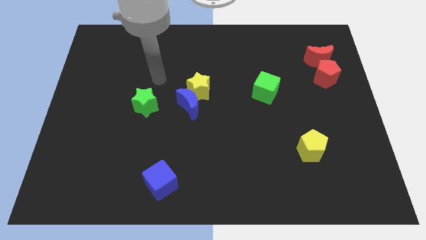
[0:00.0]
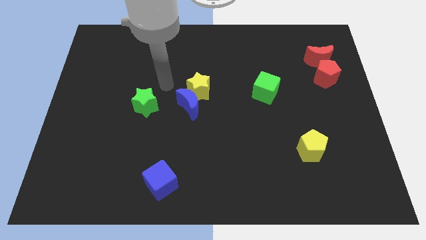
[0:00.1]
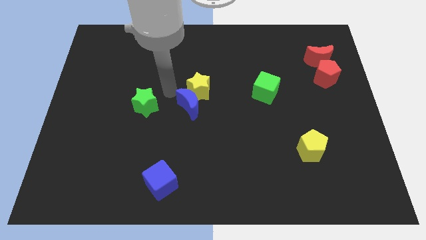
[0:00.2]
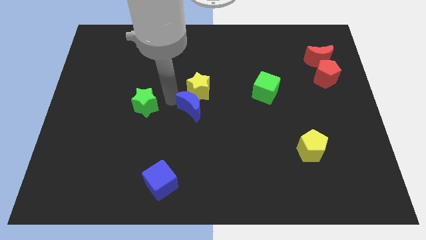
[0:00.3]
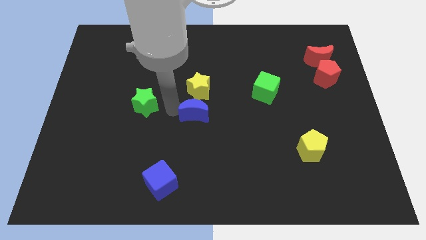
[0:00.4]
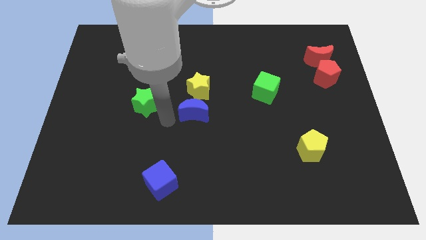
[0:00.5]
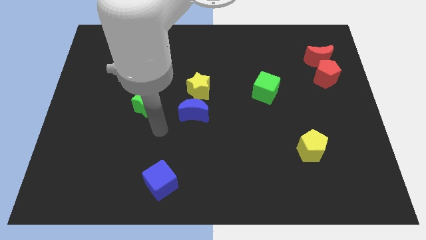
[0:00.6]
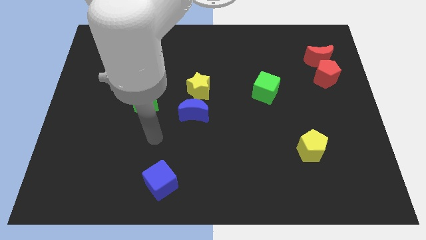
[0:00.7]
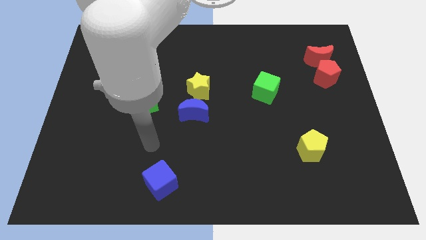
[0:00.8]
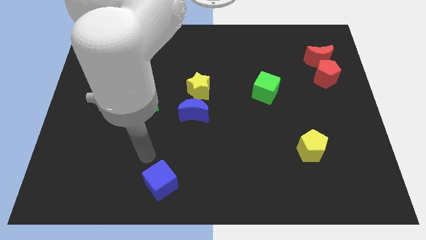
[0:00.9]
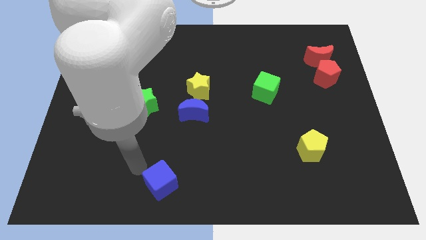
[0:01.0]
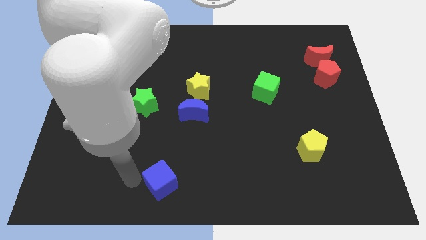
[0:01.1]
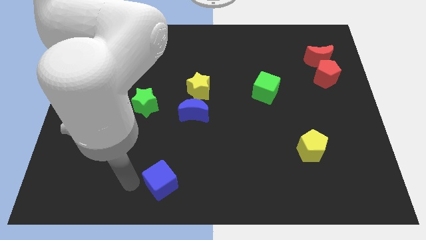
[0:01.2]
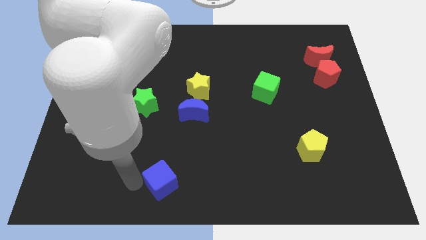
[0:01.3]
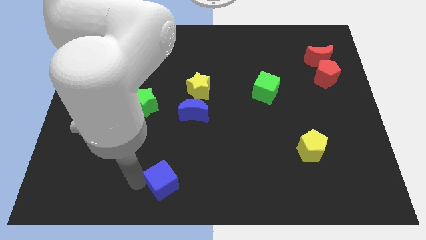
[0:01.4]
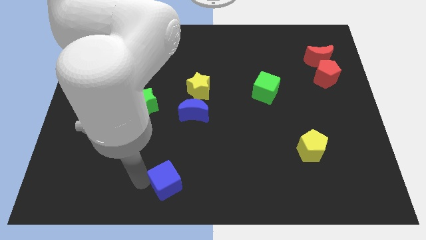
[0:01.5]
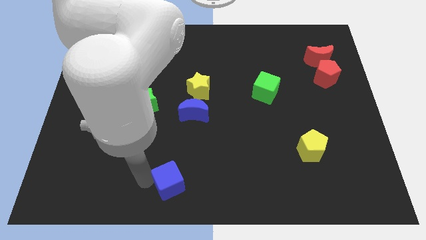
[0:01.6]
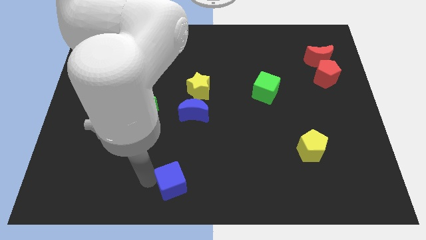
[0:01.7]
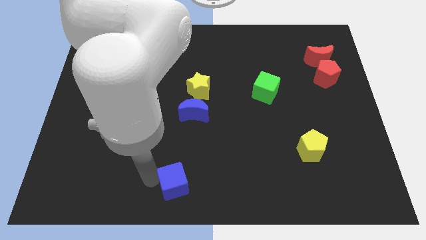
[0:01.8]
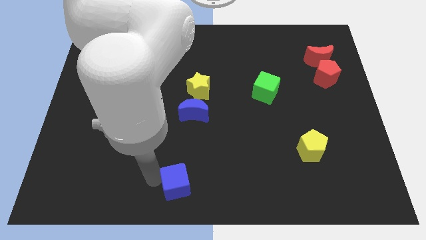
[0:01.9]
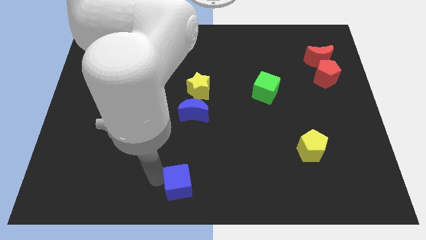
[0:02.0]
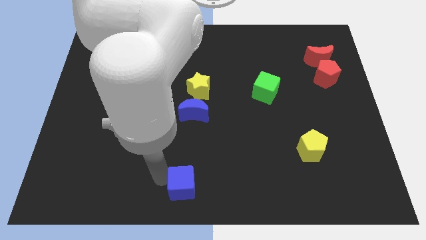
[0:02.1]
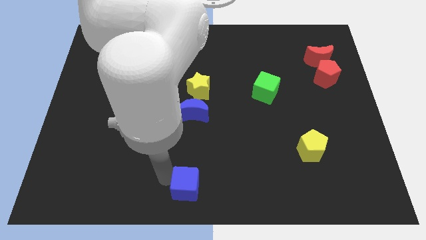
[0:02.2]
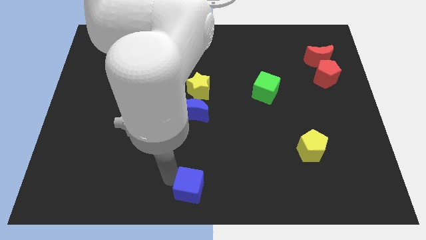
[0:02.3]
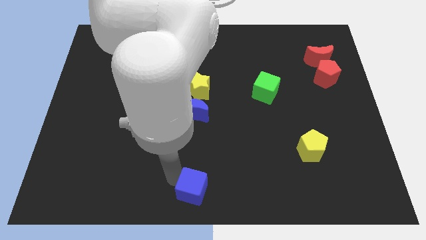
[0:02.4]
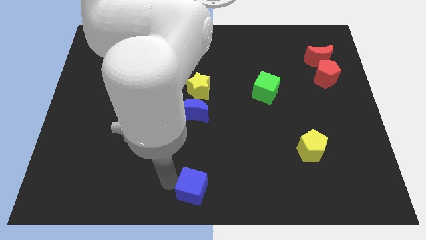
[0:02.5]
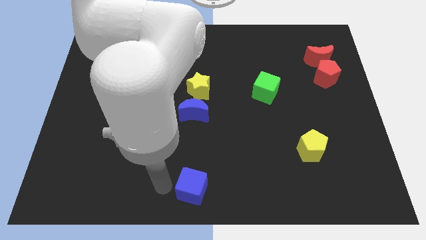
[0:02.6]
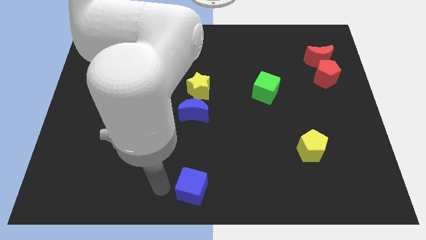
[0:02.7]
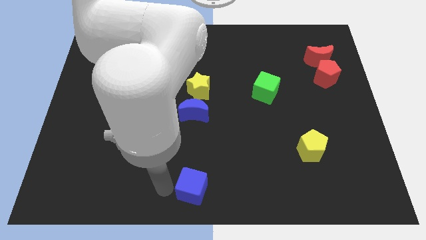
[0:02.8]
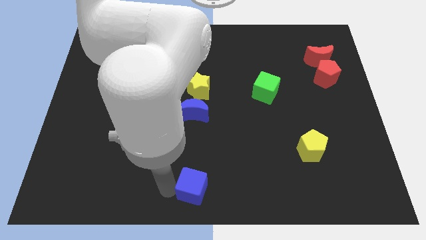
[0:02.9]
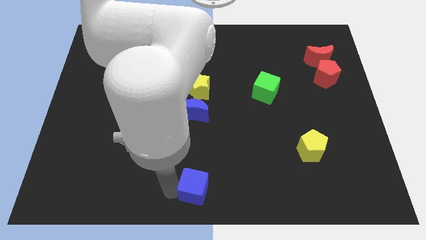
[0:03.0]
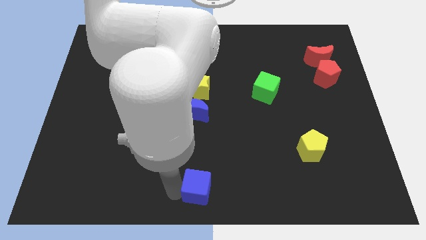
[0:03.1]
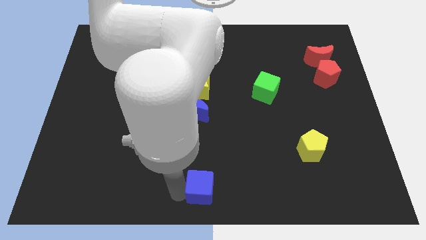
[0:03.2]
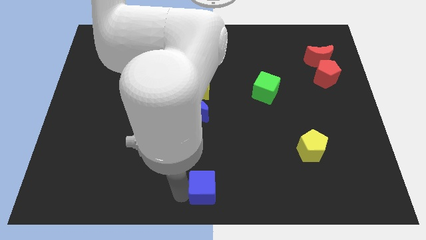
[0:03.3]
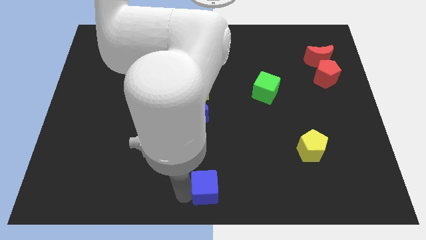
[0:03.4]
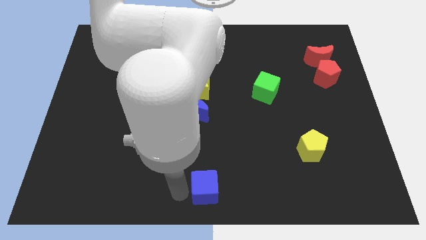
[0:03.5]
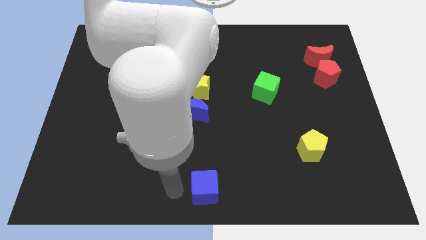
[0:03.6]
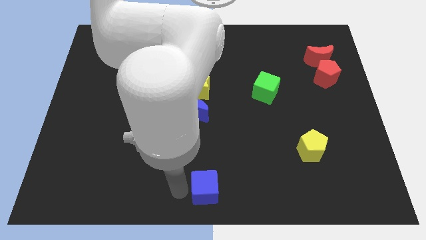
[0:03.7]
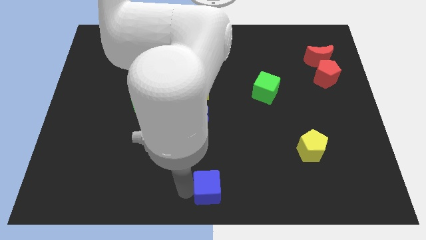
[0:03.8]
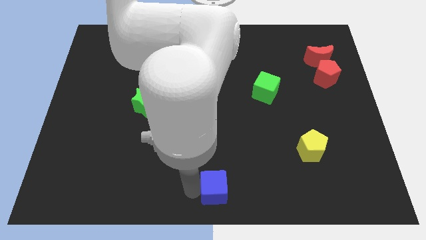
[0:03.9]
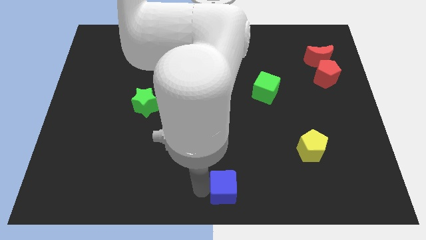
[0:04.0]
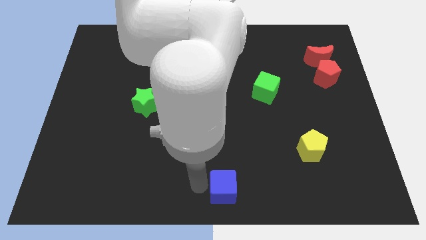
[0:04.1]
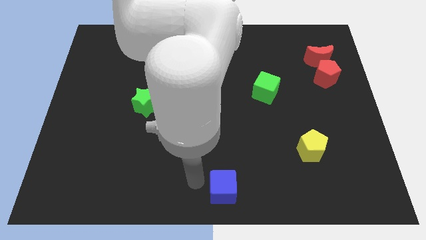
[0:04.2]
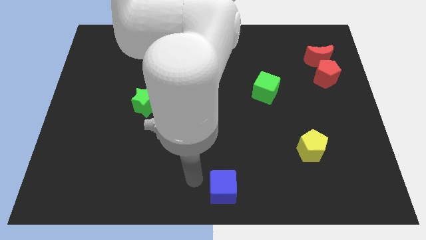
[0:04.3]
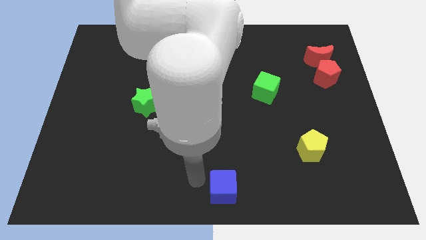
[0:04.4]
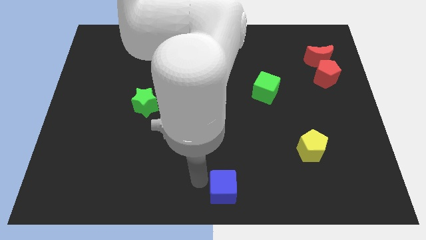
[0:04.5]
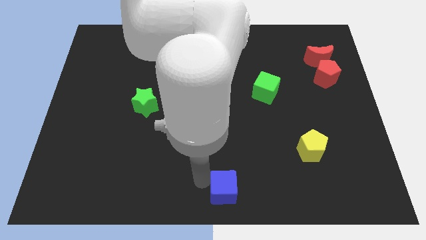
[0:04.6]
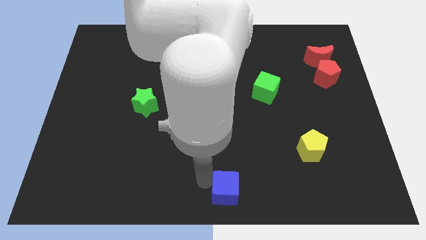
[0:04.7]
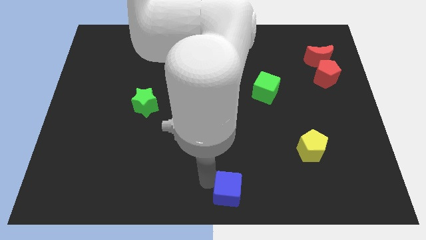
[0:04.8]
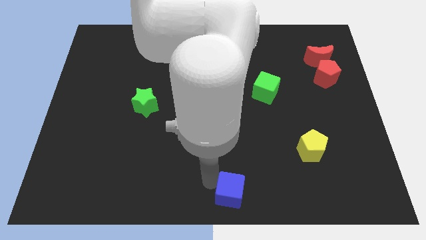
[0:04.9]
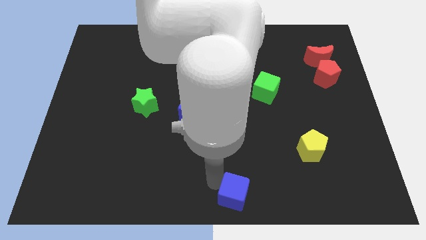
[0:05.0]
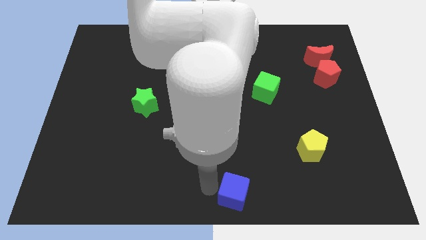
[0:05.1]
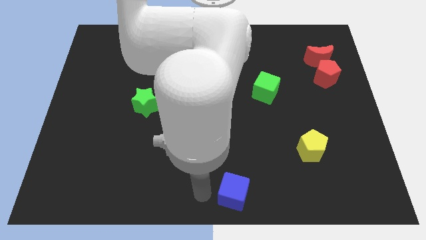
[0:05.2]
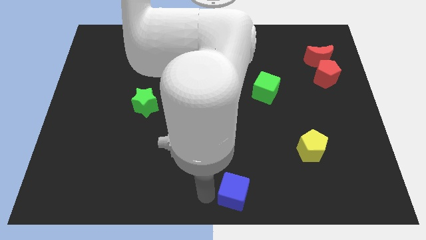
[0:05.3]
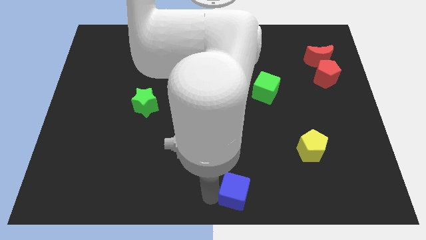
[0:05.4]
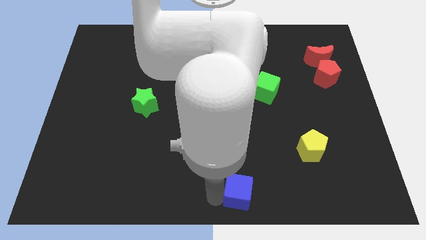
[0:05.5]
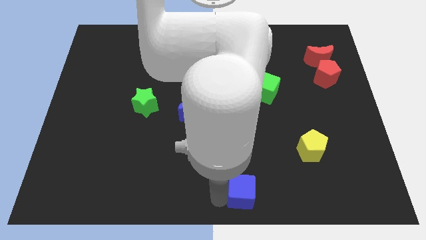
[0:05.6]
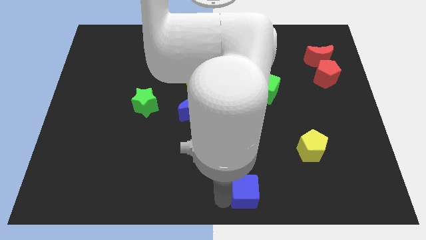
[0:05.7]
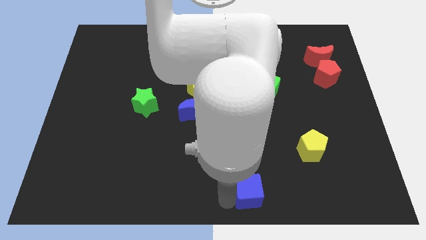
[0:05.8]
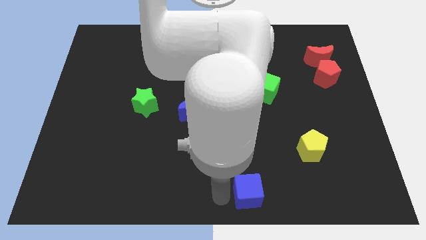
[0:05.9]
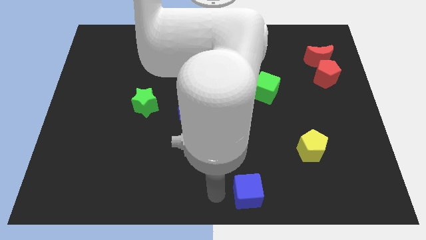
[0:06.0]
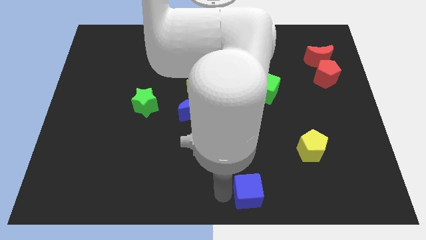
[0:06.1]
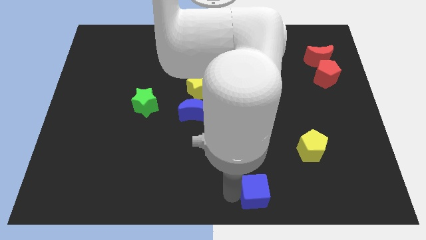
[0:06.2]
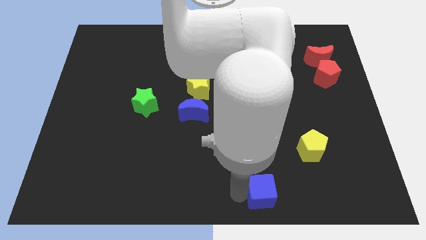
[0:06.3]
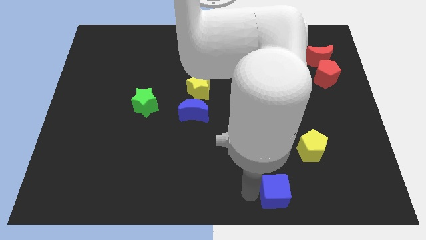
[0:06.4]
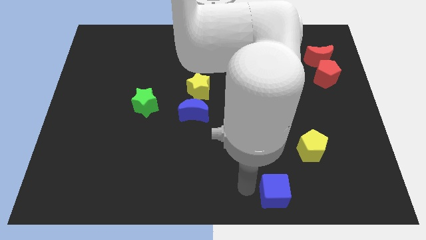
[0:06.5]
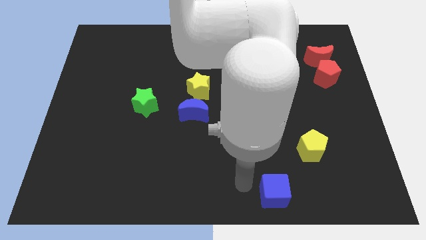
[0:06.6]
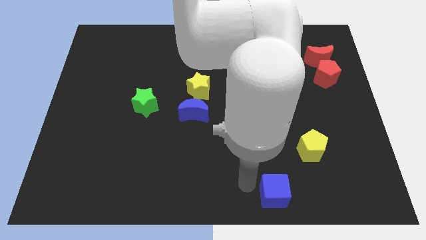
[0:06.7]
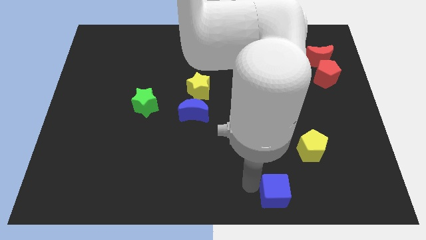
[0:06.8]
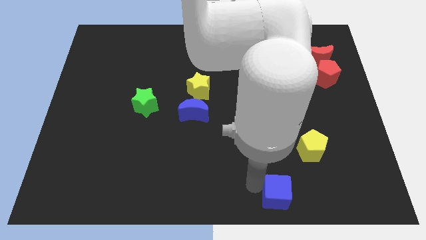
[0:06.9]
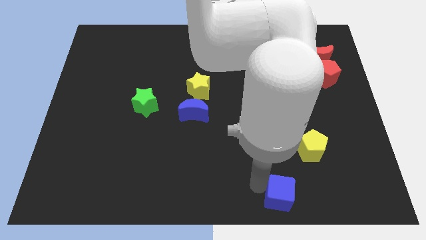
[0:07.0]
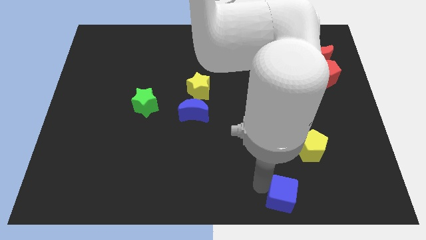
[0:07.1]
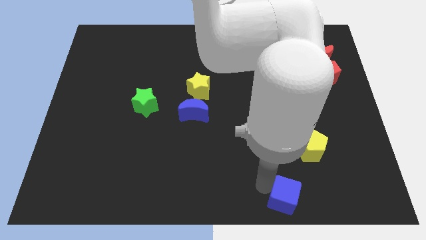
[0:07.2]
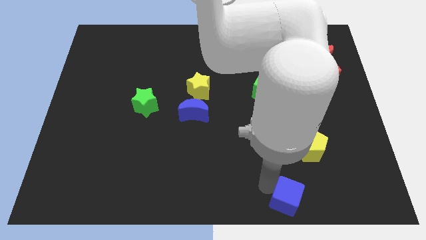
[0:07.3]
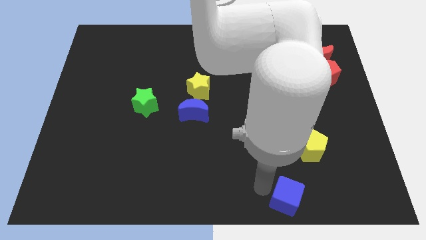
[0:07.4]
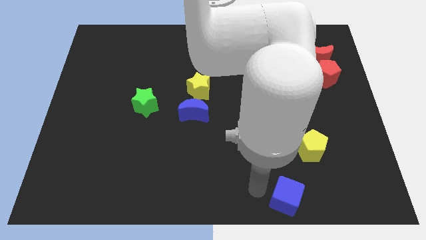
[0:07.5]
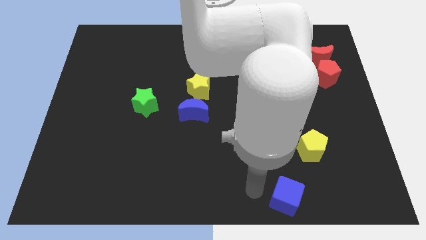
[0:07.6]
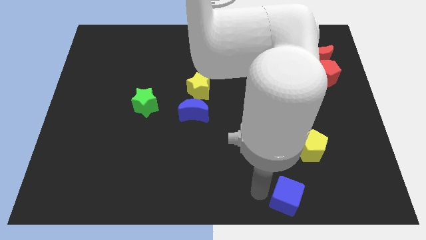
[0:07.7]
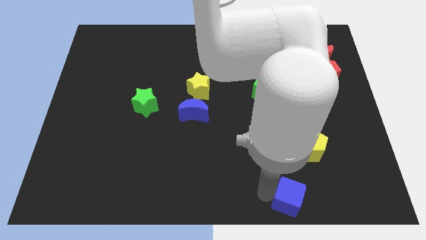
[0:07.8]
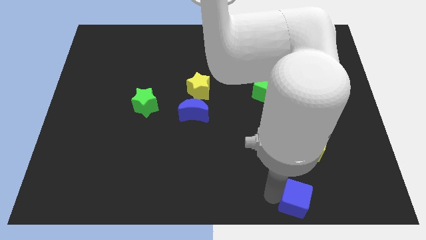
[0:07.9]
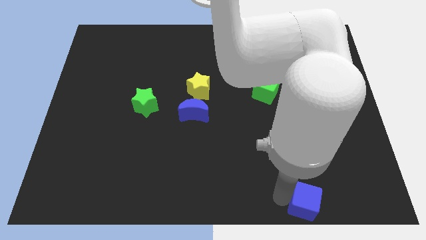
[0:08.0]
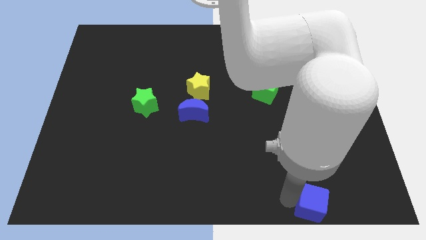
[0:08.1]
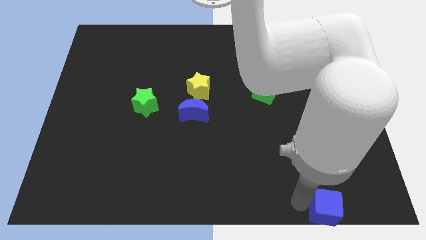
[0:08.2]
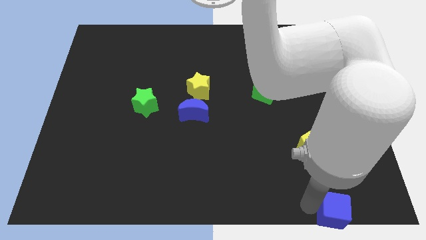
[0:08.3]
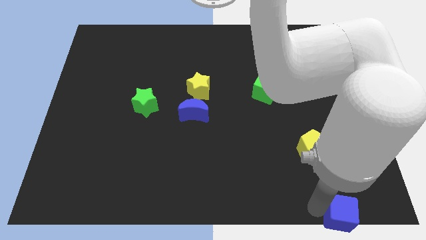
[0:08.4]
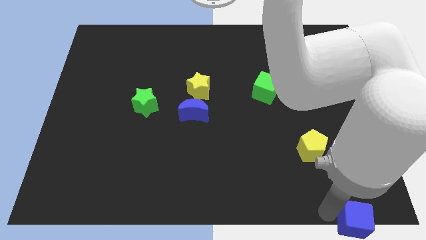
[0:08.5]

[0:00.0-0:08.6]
push the blue cube to the bottom right
